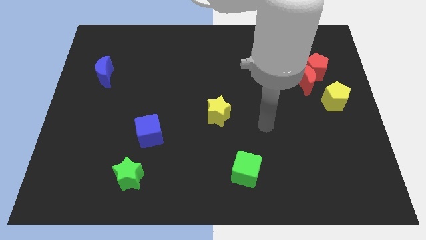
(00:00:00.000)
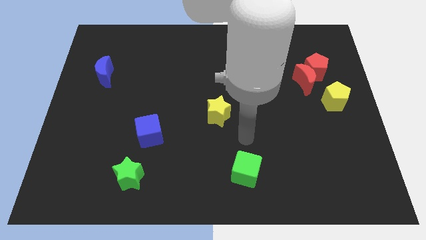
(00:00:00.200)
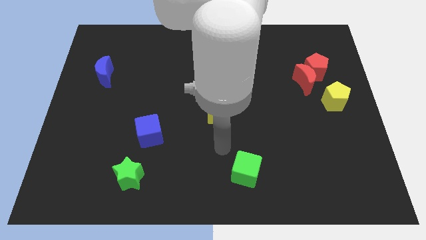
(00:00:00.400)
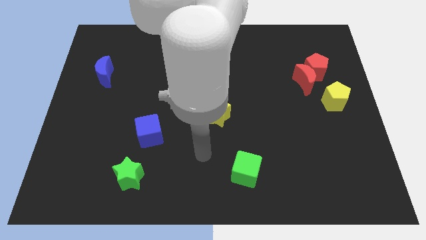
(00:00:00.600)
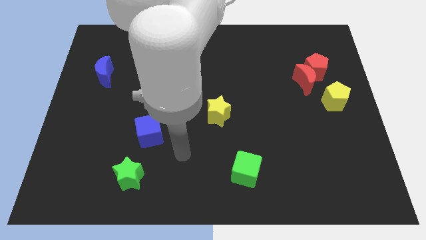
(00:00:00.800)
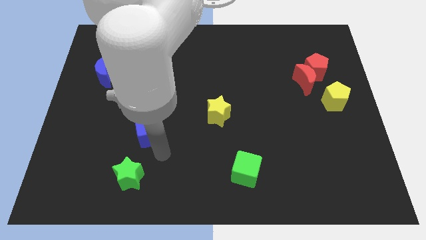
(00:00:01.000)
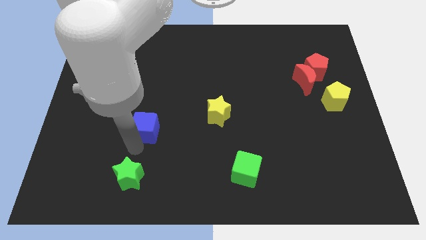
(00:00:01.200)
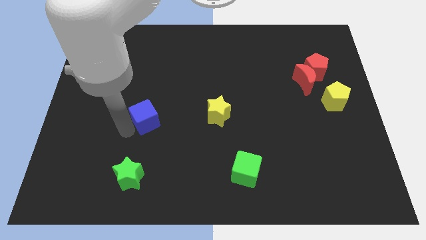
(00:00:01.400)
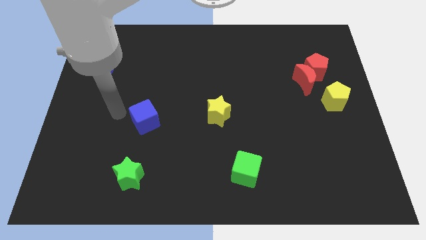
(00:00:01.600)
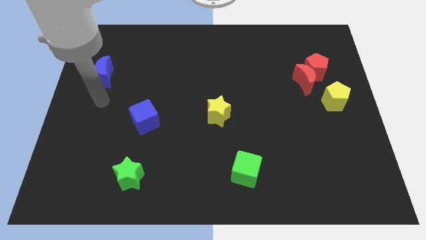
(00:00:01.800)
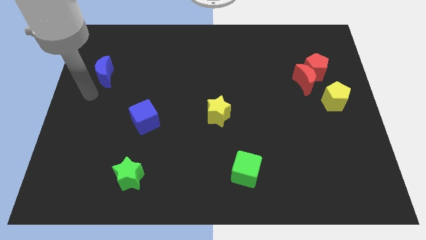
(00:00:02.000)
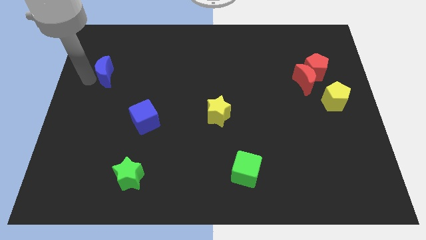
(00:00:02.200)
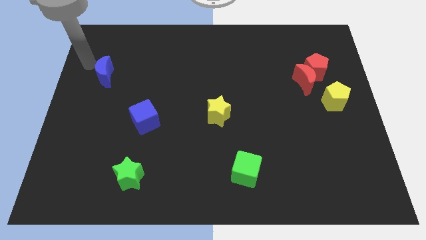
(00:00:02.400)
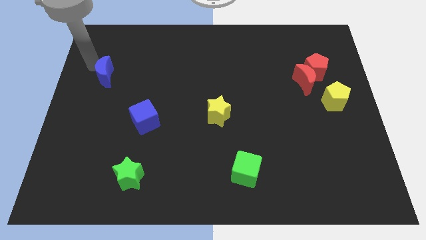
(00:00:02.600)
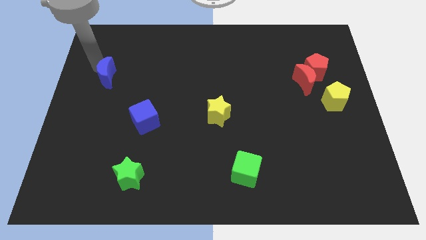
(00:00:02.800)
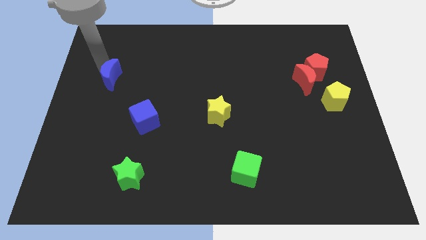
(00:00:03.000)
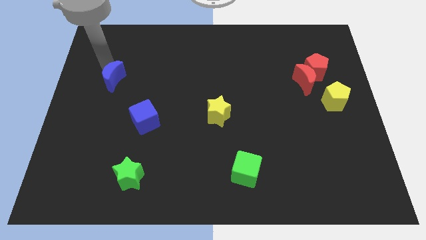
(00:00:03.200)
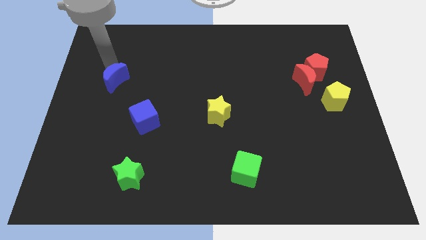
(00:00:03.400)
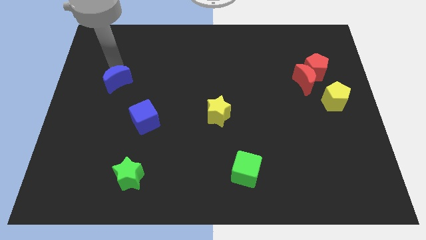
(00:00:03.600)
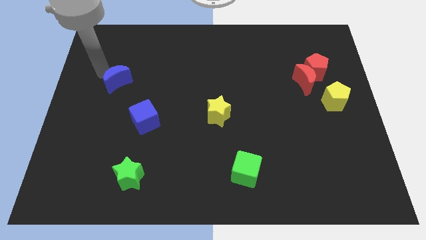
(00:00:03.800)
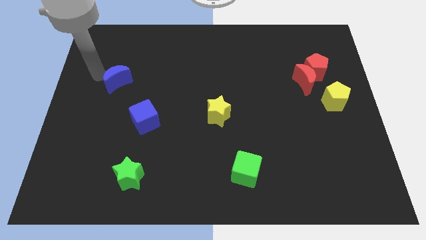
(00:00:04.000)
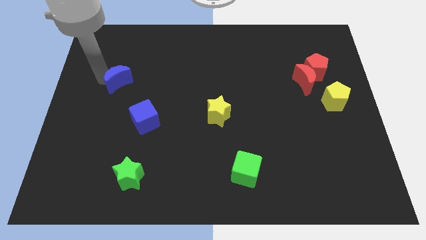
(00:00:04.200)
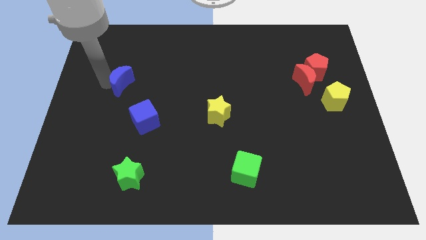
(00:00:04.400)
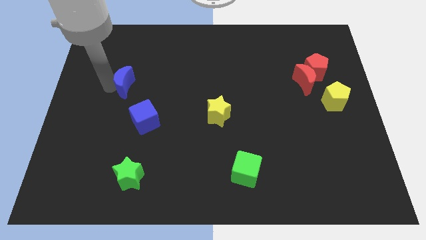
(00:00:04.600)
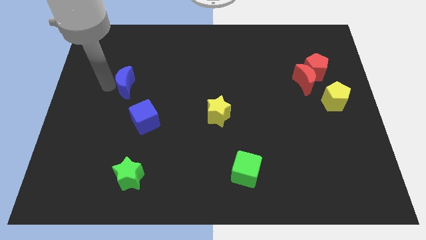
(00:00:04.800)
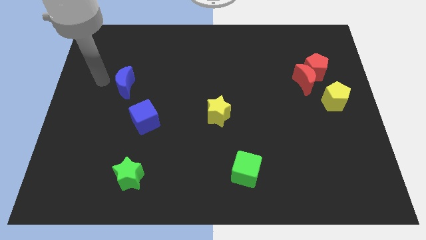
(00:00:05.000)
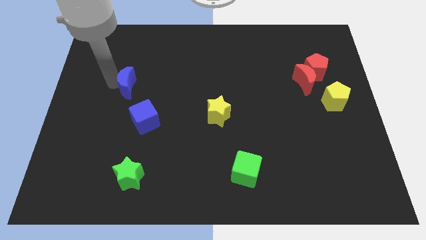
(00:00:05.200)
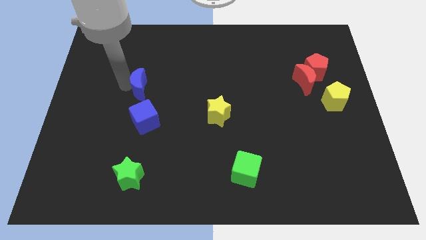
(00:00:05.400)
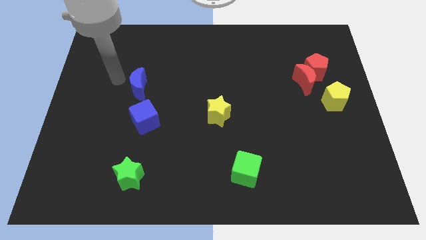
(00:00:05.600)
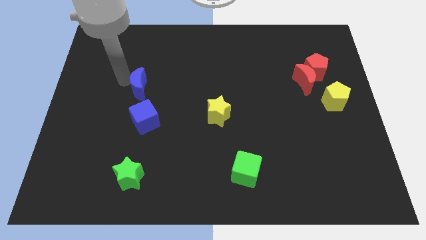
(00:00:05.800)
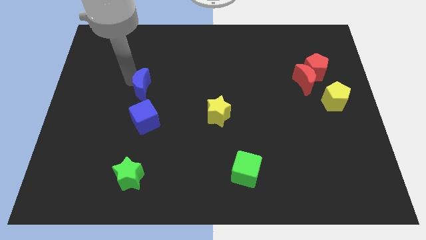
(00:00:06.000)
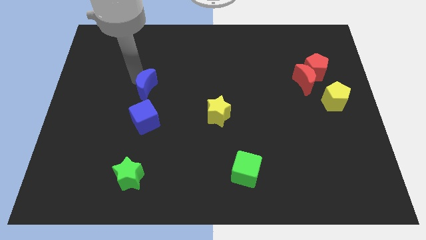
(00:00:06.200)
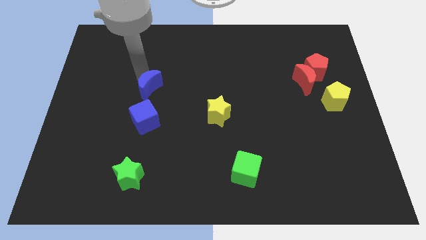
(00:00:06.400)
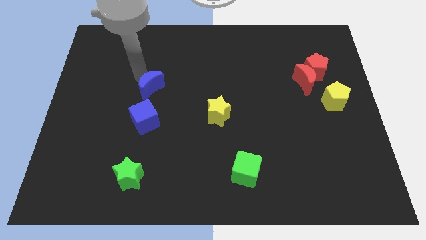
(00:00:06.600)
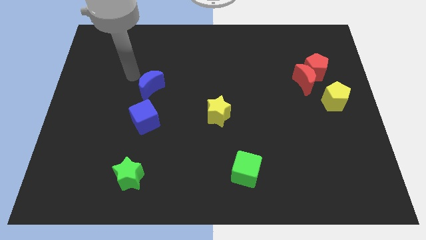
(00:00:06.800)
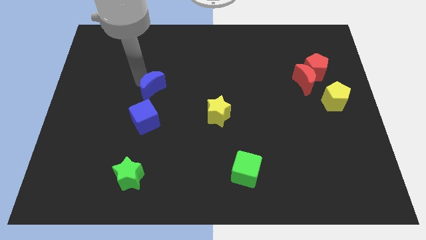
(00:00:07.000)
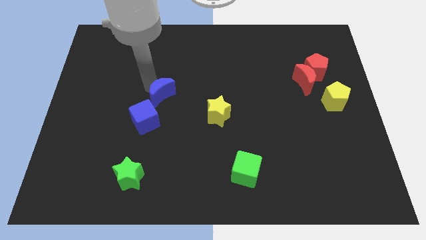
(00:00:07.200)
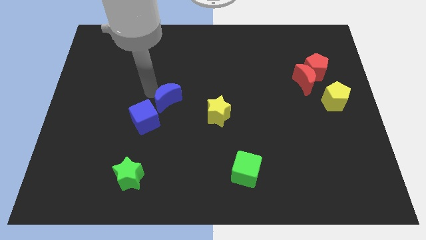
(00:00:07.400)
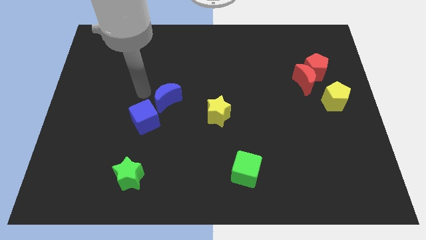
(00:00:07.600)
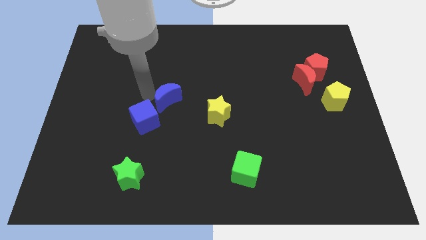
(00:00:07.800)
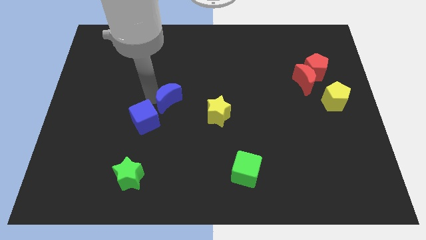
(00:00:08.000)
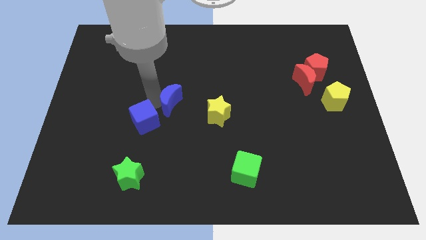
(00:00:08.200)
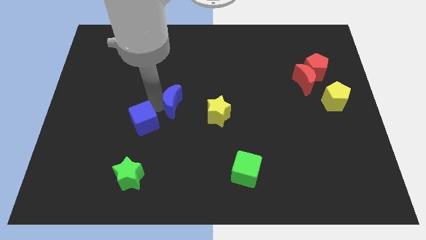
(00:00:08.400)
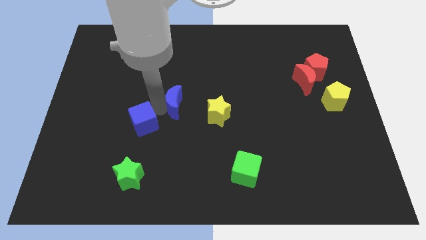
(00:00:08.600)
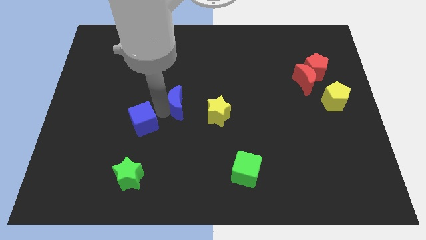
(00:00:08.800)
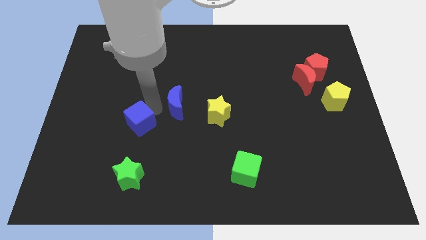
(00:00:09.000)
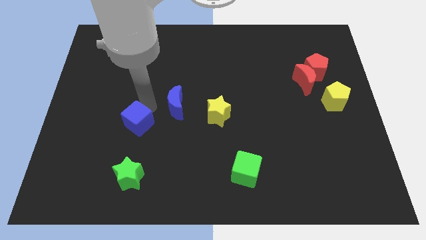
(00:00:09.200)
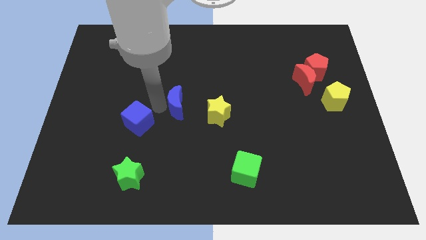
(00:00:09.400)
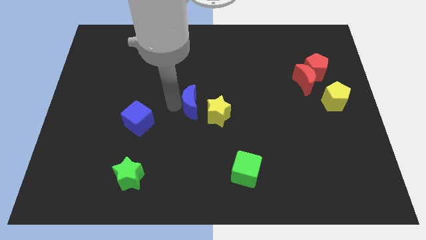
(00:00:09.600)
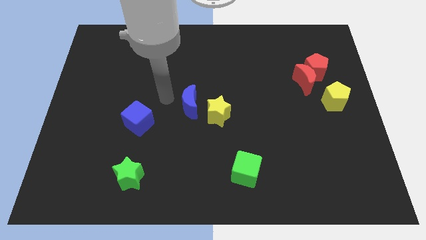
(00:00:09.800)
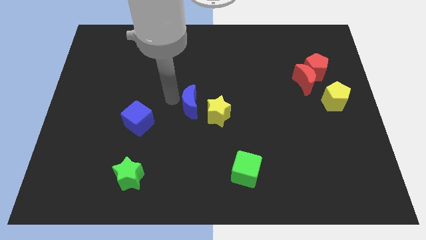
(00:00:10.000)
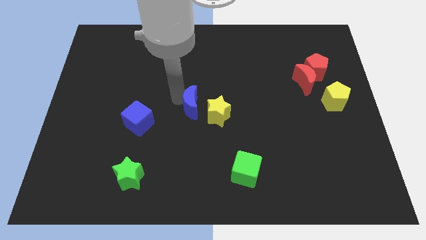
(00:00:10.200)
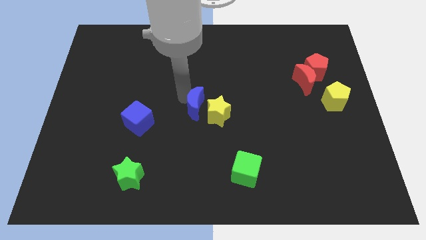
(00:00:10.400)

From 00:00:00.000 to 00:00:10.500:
push the blue moon towards the yellow star

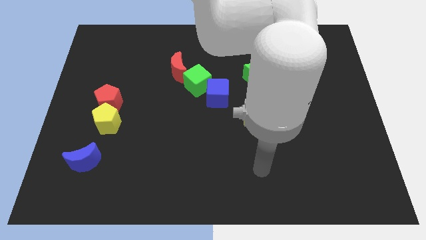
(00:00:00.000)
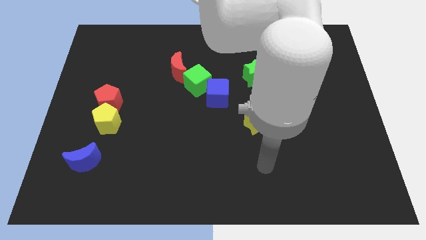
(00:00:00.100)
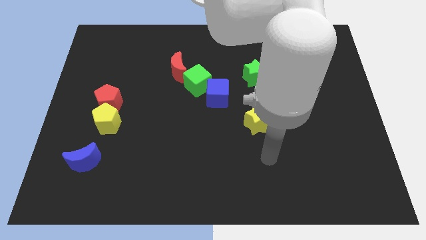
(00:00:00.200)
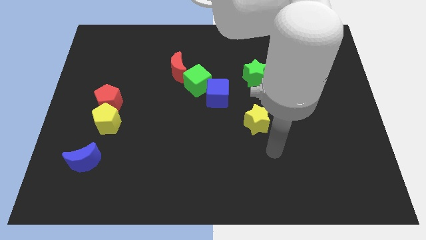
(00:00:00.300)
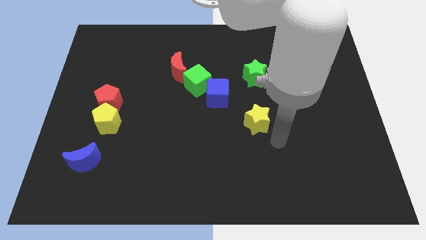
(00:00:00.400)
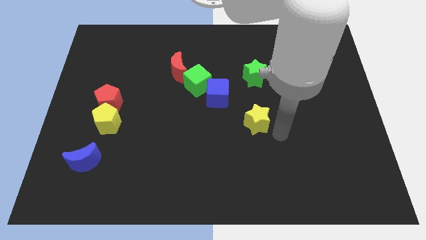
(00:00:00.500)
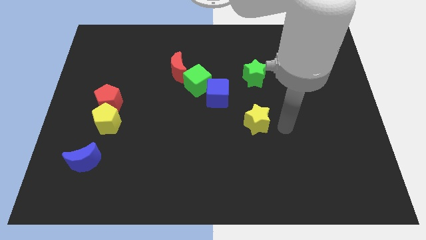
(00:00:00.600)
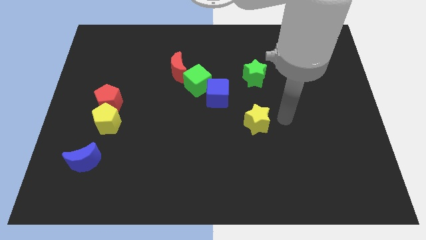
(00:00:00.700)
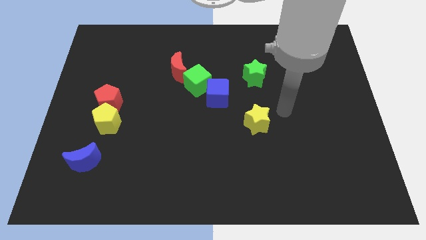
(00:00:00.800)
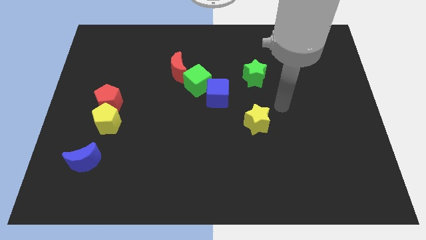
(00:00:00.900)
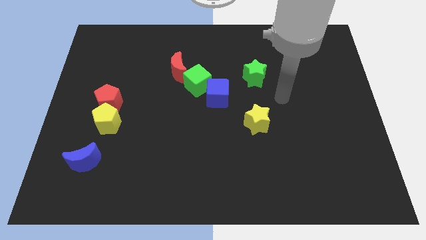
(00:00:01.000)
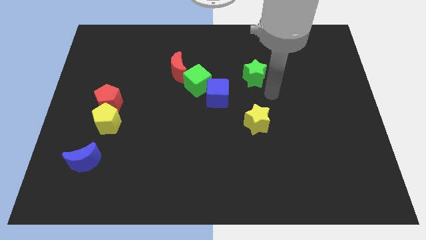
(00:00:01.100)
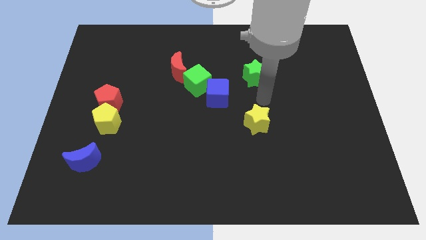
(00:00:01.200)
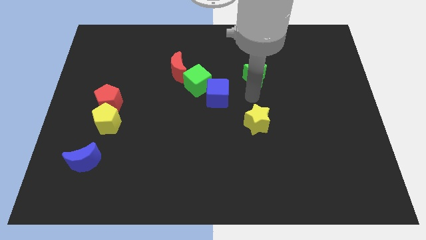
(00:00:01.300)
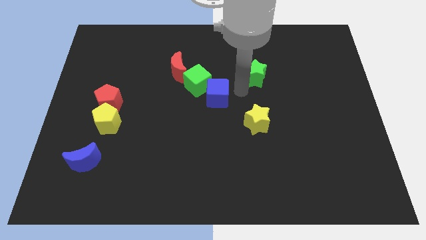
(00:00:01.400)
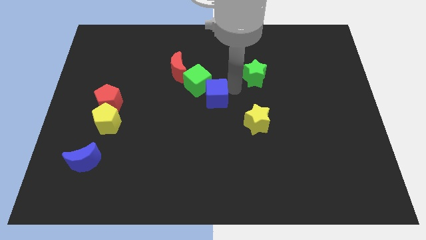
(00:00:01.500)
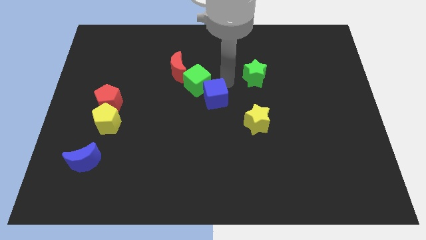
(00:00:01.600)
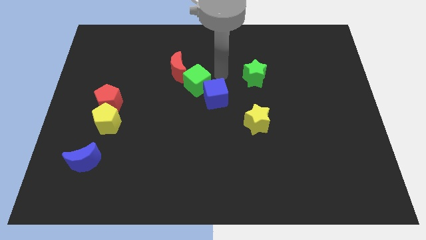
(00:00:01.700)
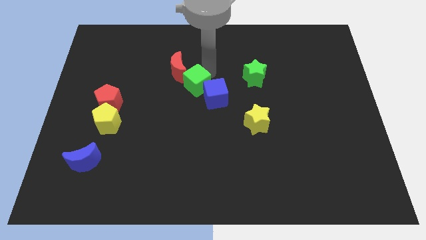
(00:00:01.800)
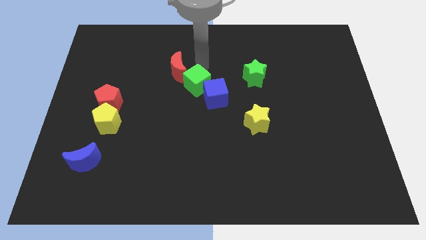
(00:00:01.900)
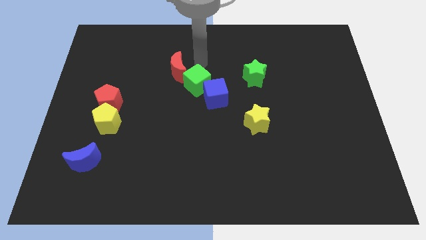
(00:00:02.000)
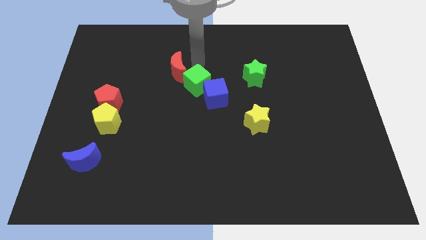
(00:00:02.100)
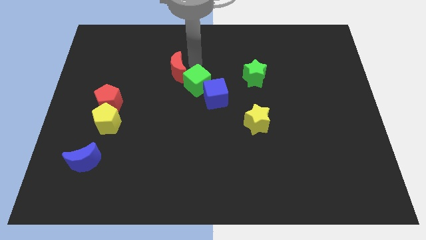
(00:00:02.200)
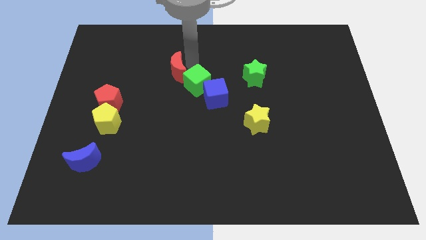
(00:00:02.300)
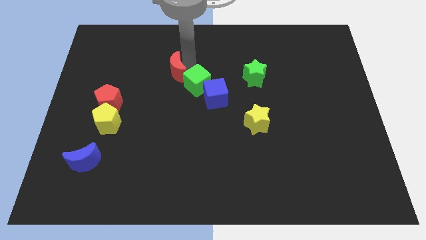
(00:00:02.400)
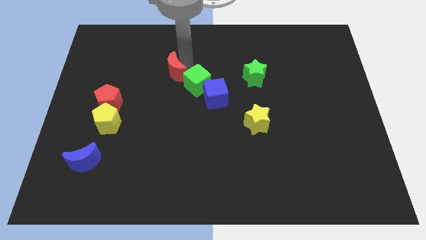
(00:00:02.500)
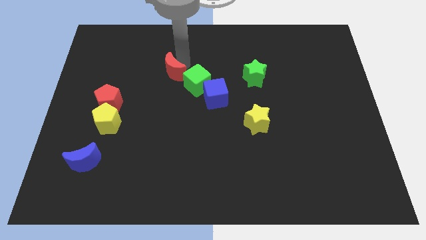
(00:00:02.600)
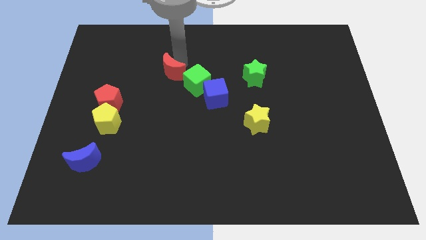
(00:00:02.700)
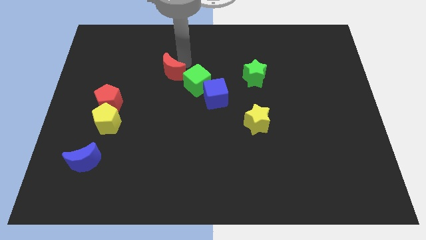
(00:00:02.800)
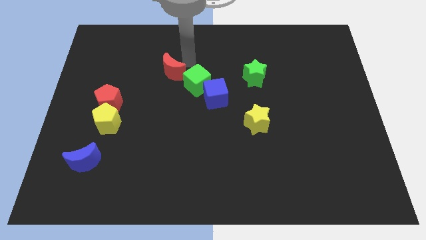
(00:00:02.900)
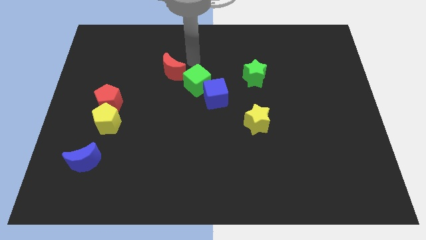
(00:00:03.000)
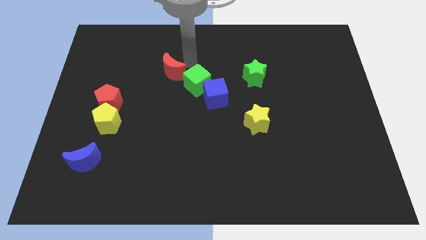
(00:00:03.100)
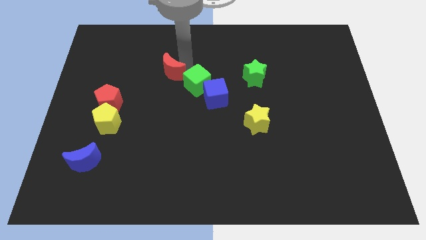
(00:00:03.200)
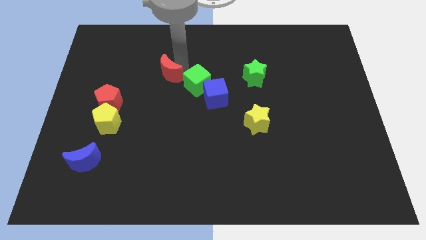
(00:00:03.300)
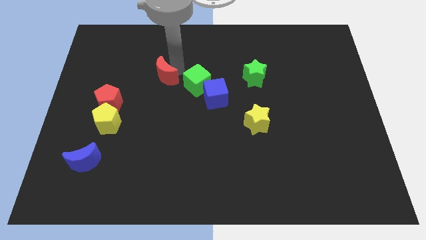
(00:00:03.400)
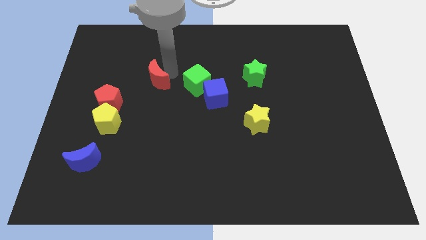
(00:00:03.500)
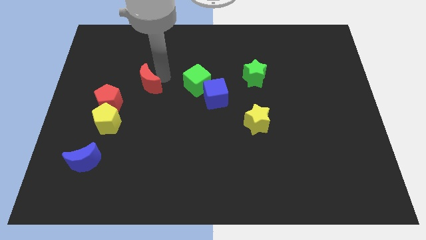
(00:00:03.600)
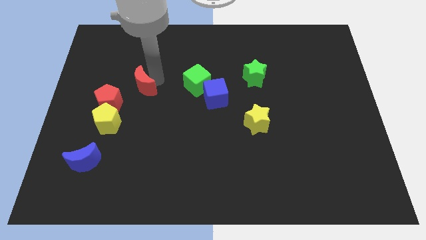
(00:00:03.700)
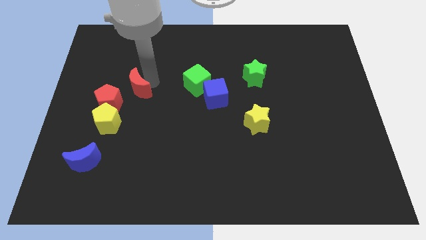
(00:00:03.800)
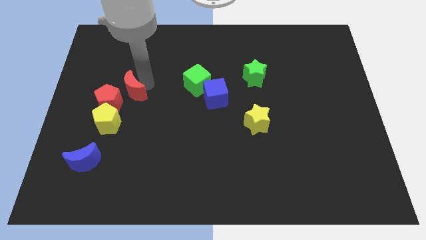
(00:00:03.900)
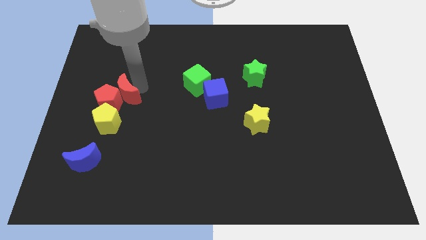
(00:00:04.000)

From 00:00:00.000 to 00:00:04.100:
push the red moon to the red pentagon
